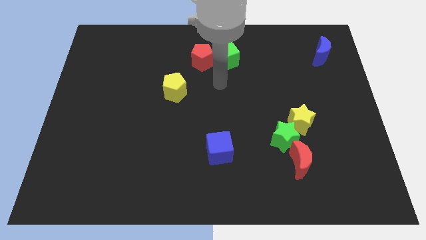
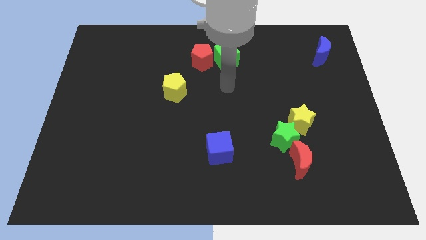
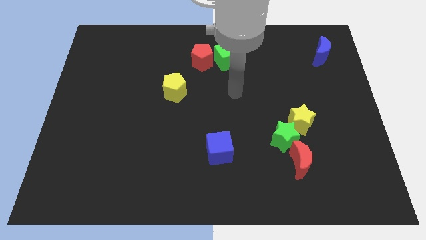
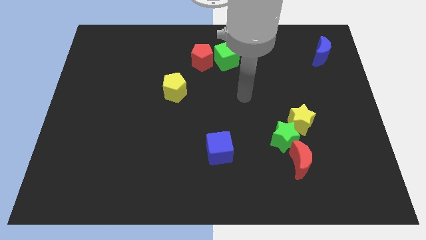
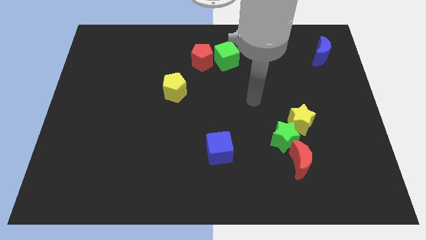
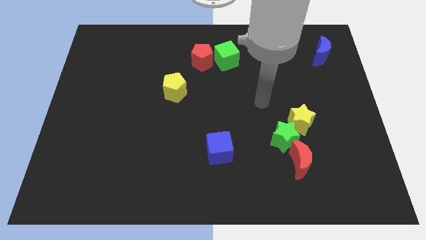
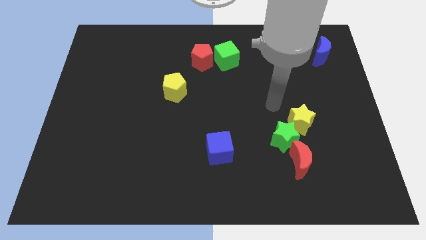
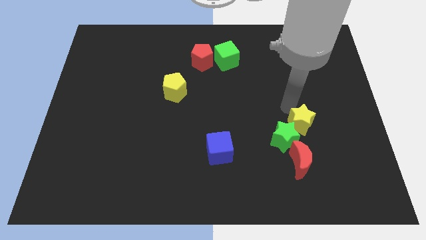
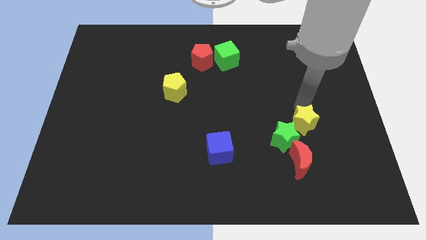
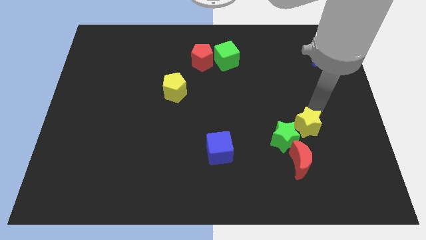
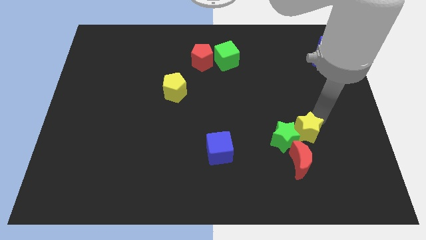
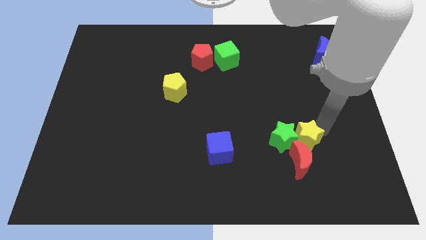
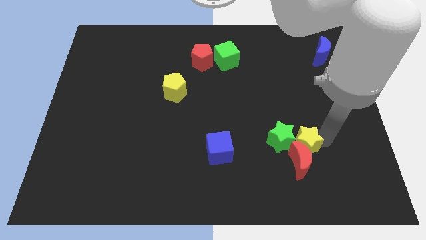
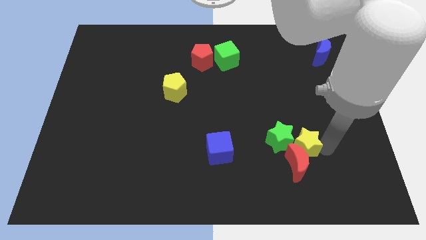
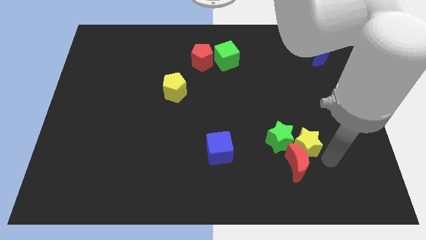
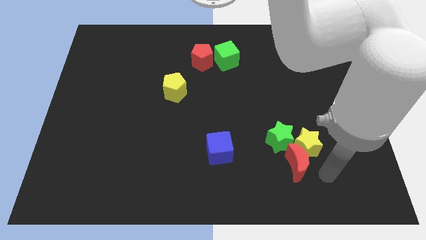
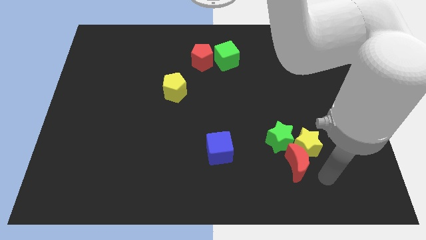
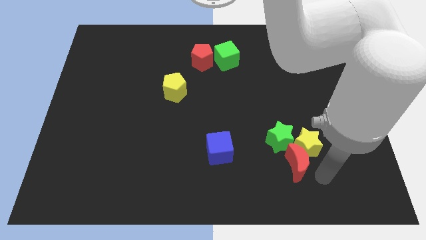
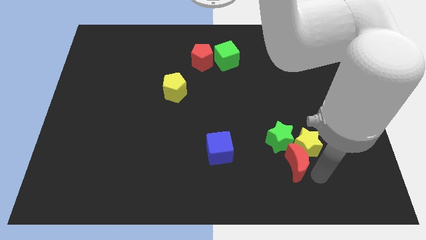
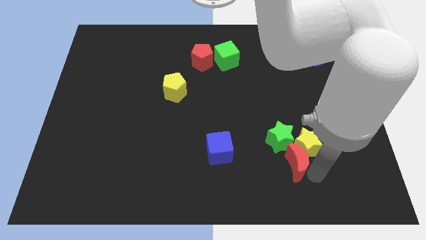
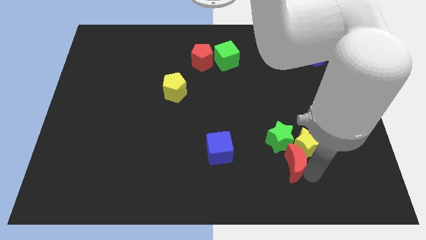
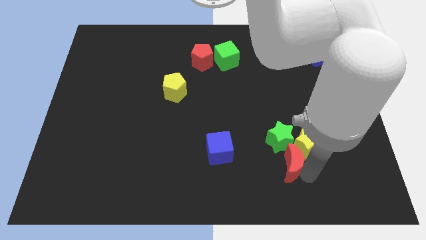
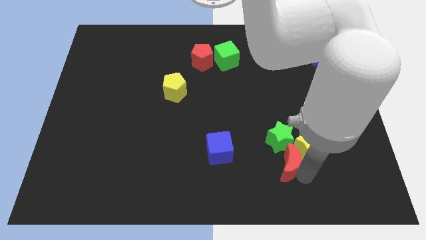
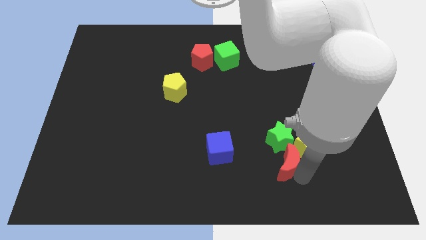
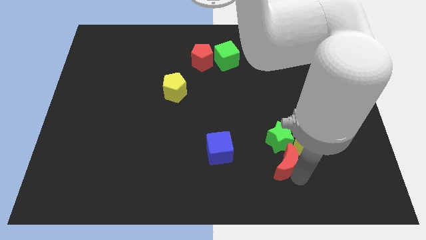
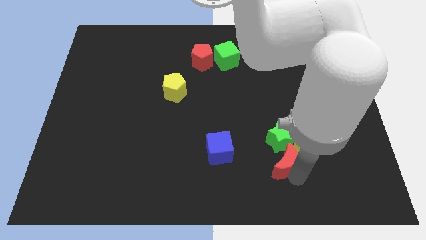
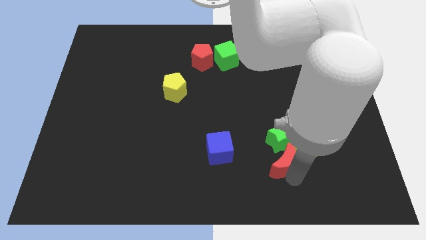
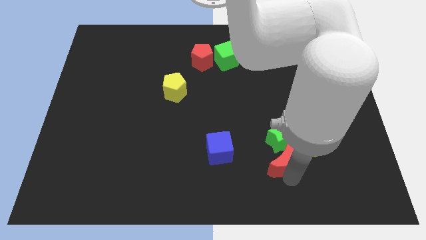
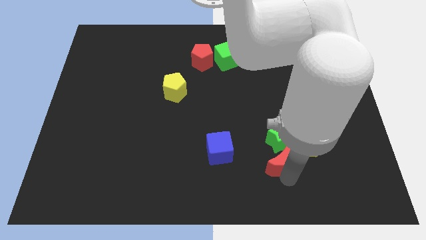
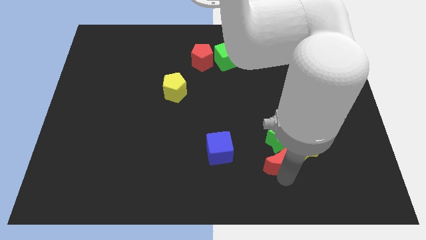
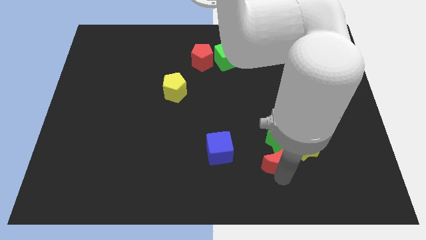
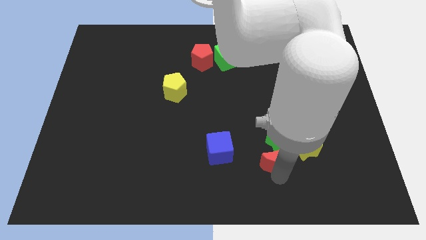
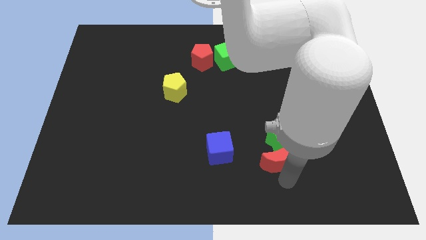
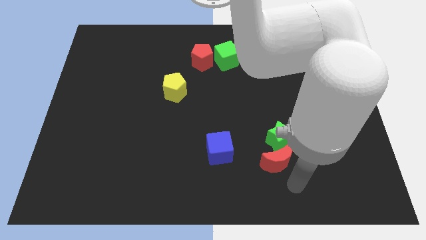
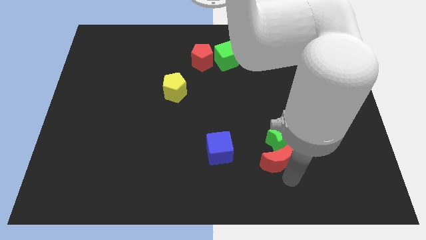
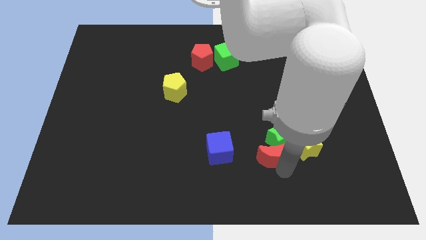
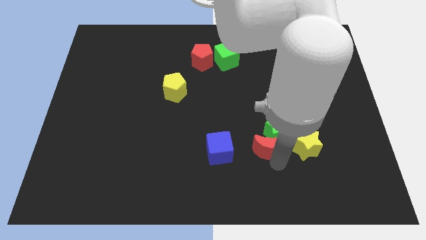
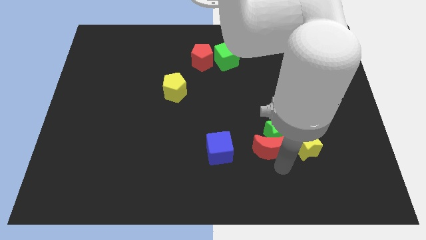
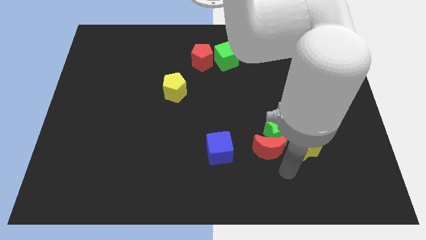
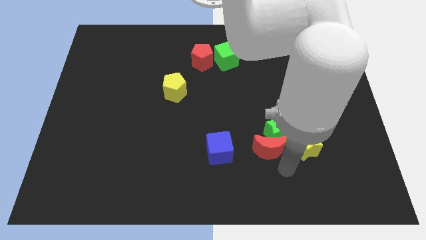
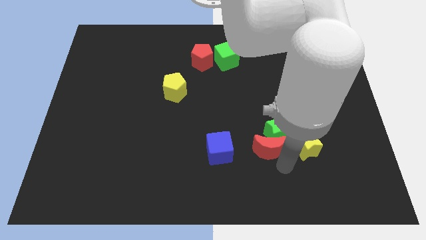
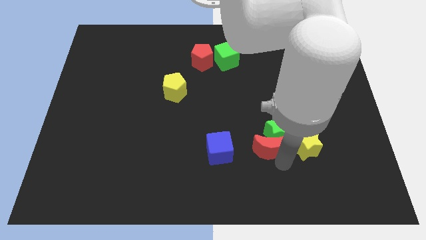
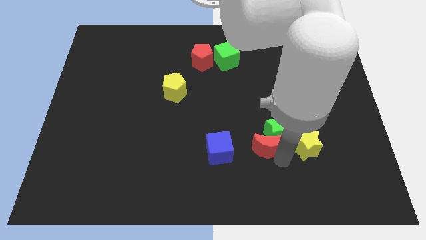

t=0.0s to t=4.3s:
slightly move the red moon up and left diagonally

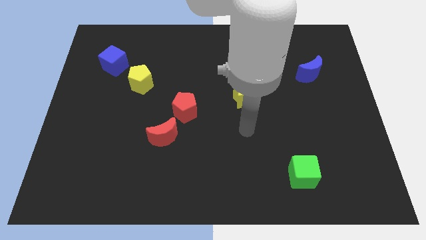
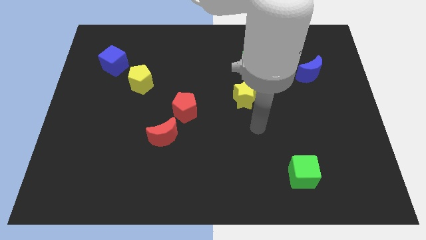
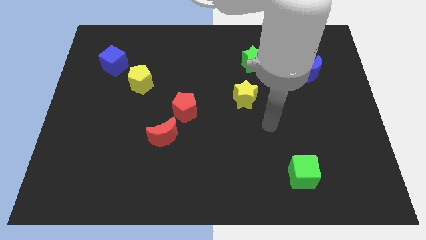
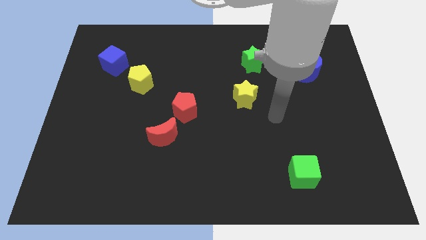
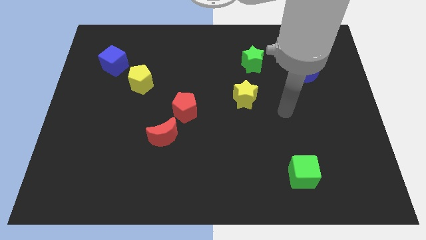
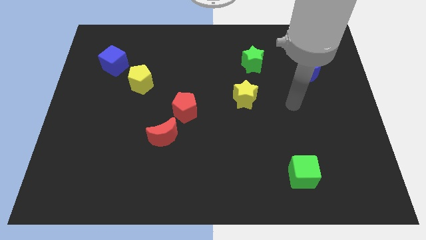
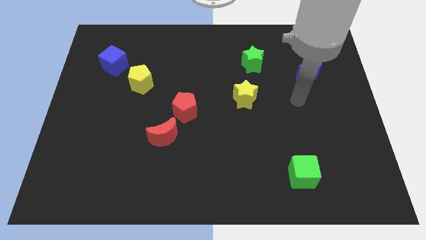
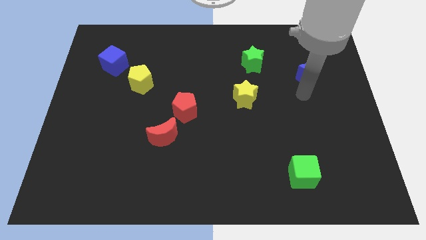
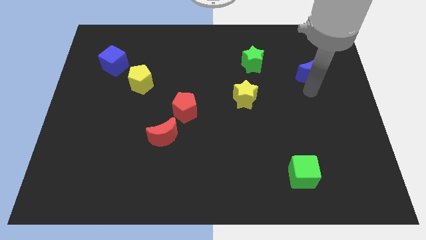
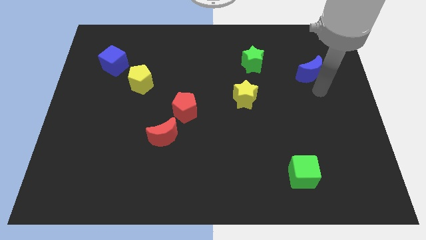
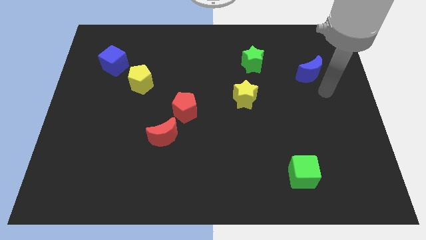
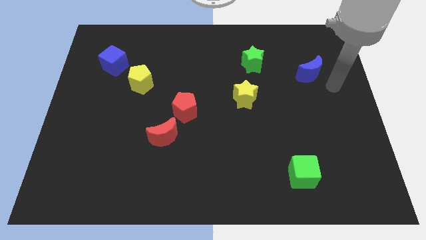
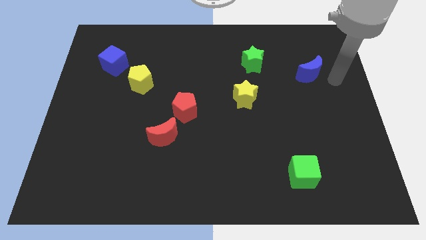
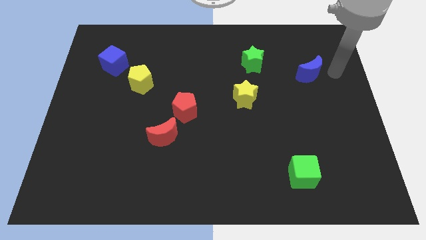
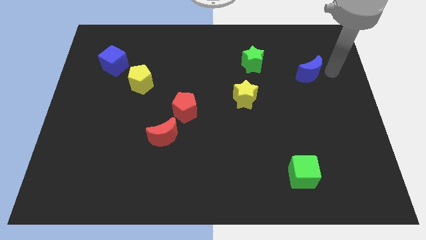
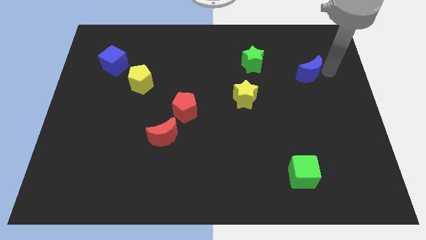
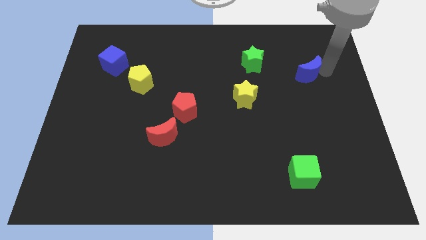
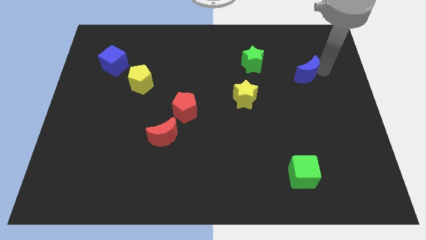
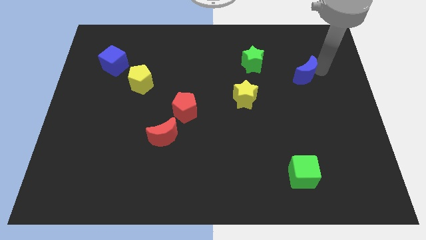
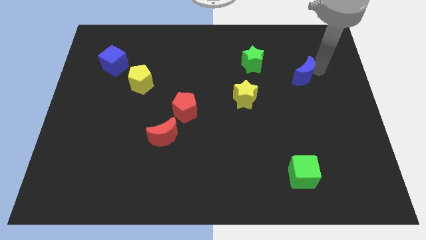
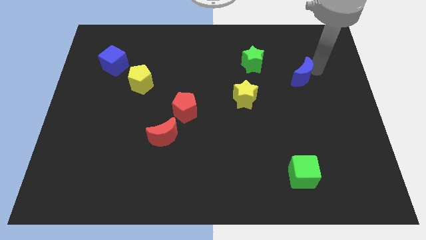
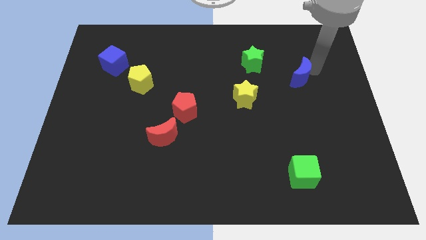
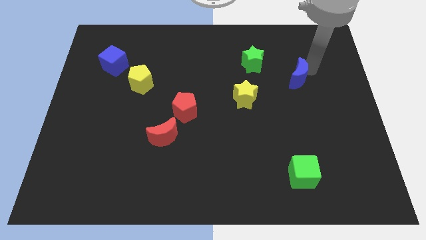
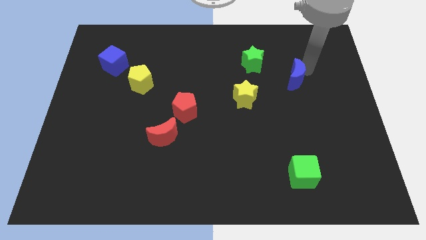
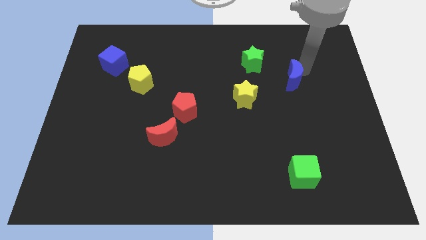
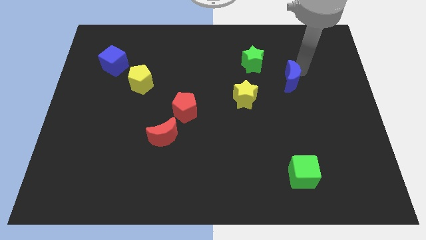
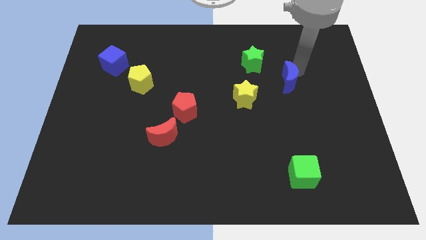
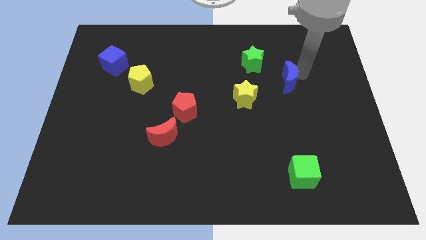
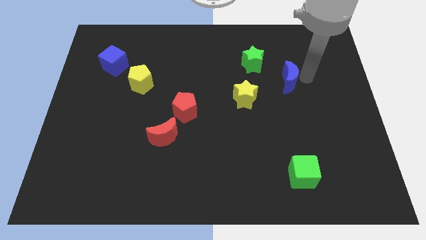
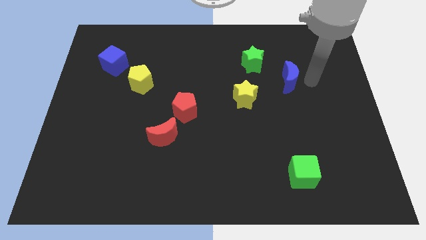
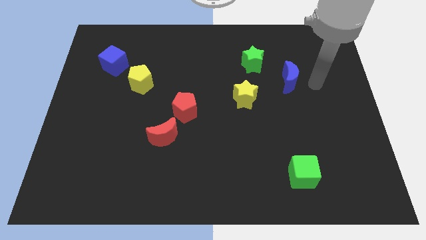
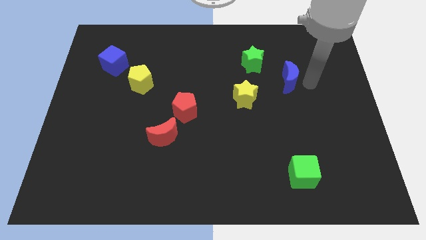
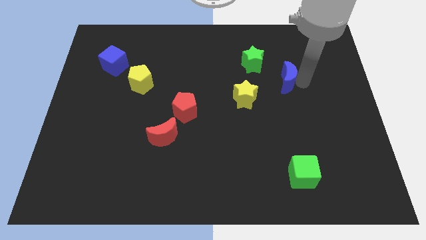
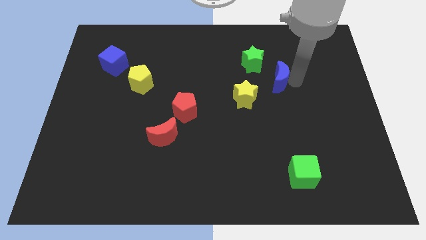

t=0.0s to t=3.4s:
slightly push the blue moon left

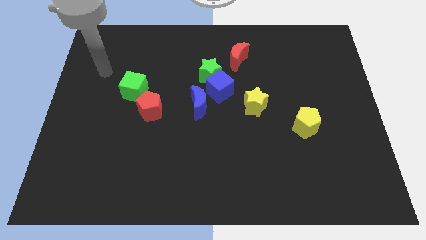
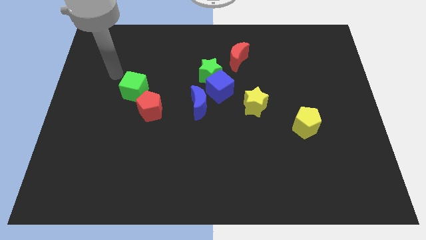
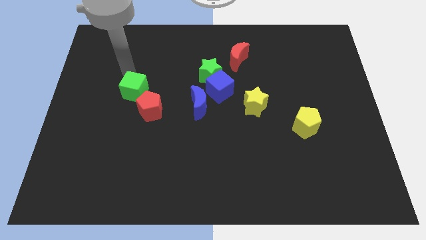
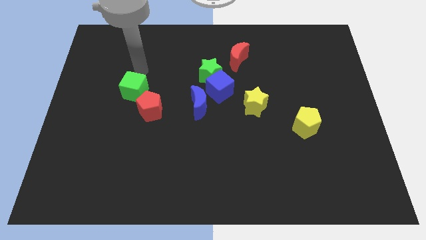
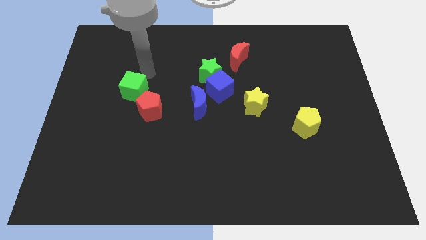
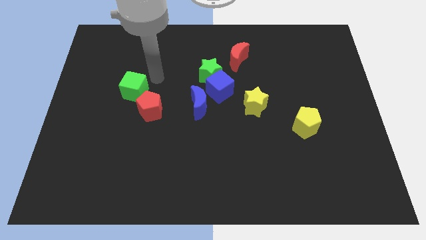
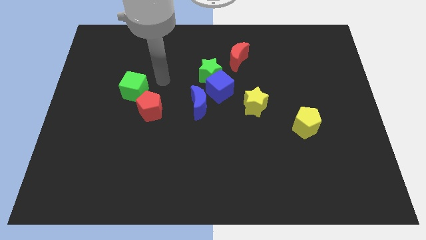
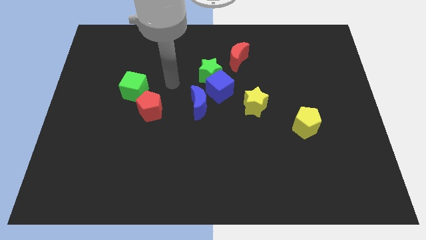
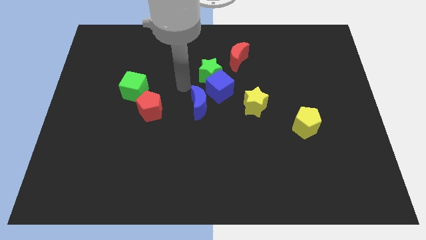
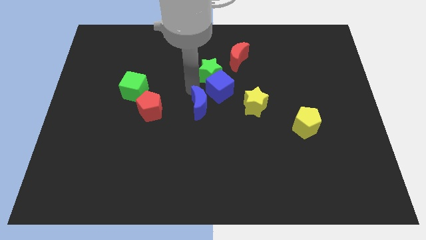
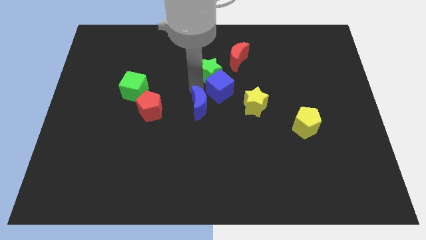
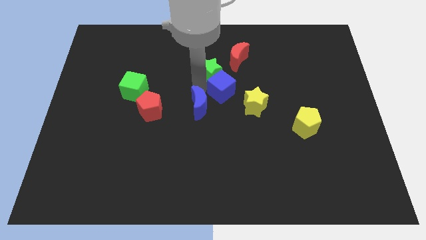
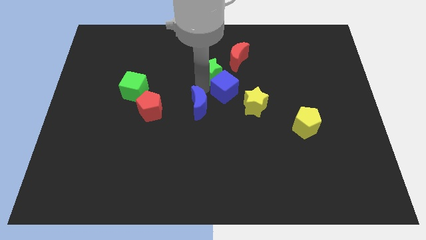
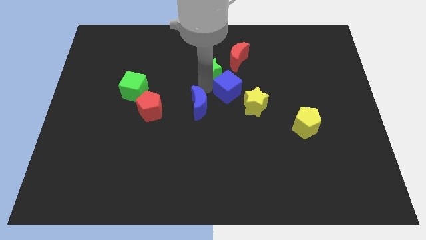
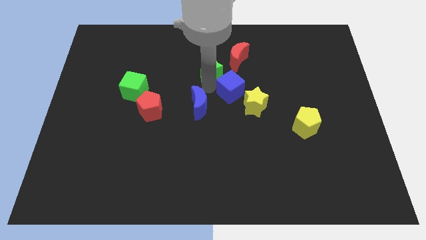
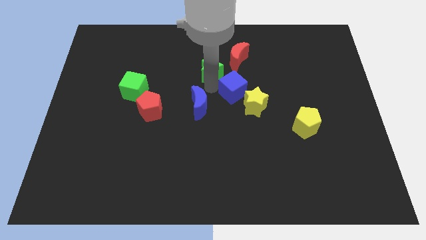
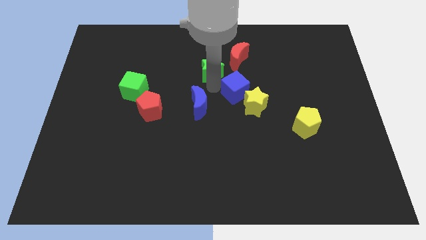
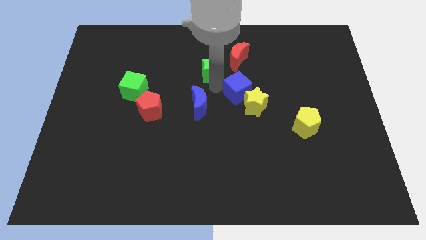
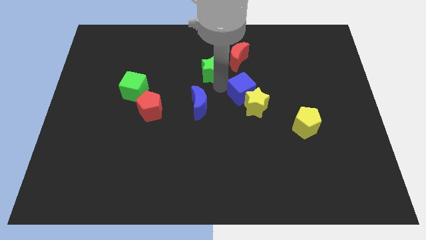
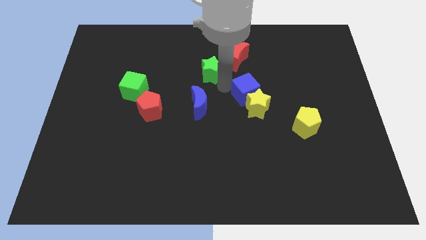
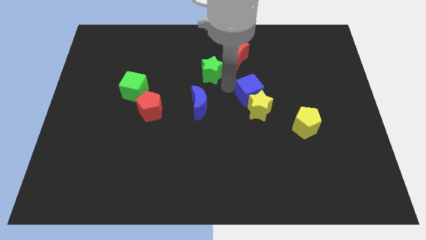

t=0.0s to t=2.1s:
slightly move the blue cube to the right
